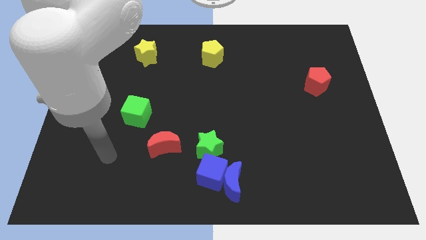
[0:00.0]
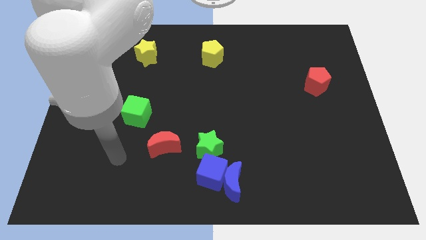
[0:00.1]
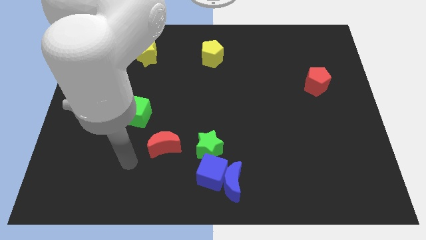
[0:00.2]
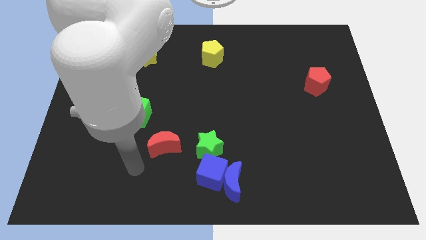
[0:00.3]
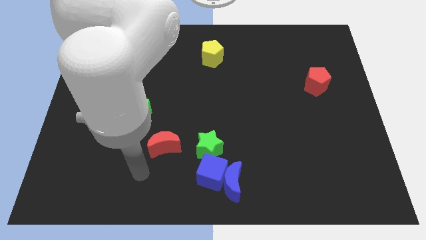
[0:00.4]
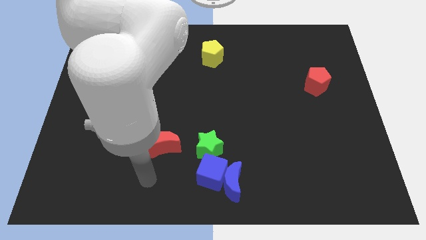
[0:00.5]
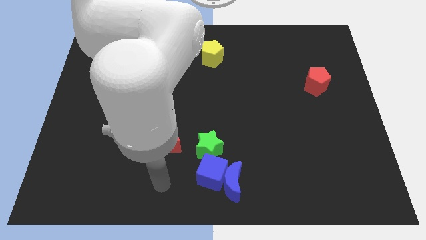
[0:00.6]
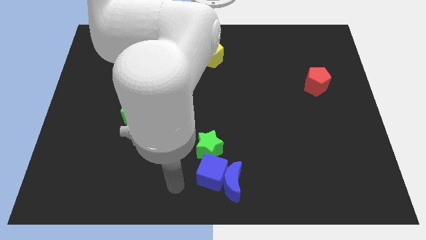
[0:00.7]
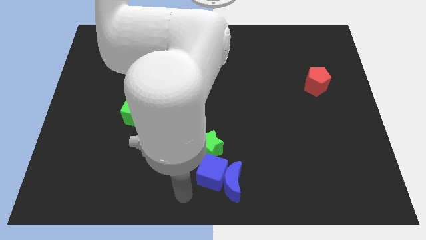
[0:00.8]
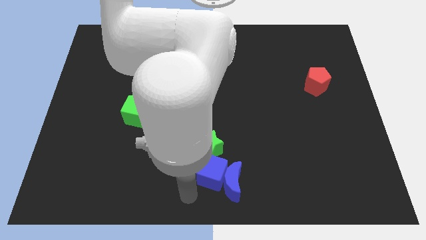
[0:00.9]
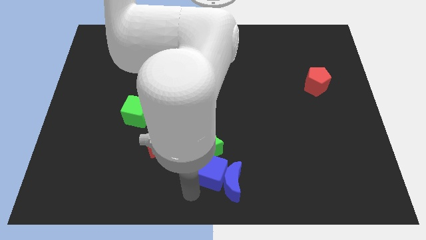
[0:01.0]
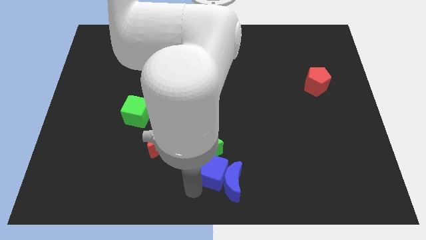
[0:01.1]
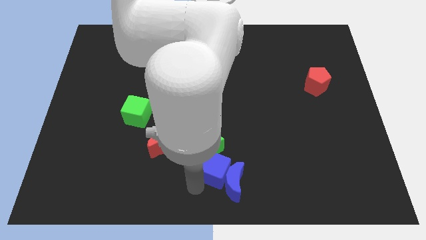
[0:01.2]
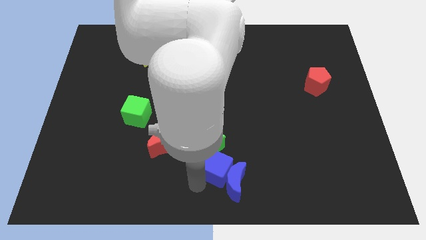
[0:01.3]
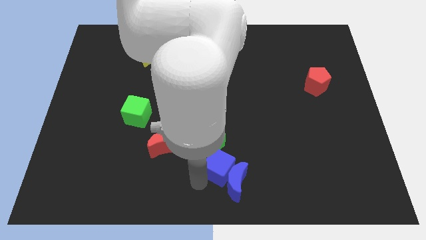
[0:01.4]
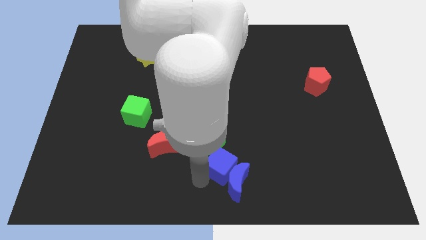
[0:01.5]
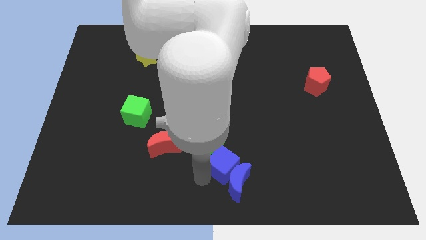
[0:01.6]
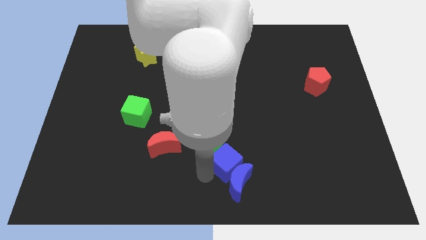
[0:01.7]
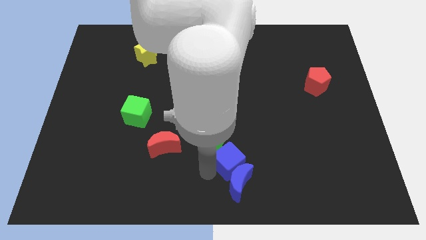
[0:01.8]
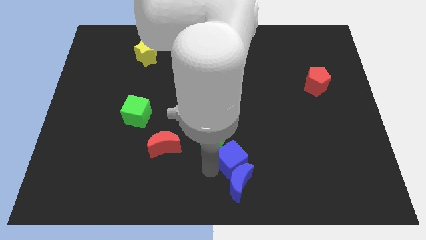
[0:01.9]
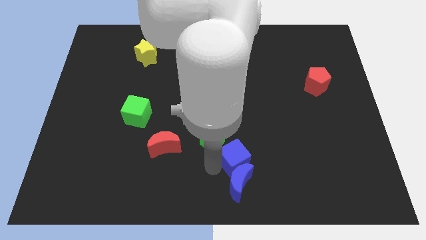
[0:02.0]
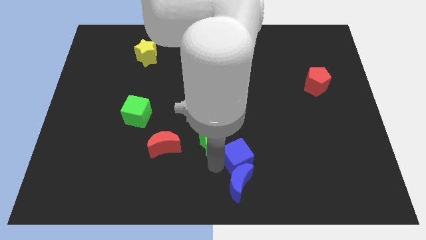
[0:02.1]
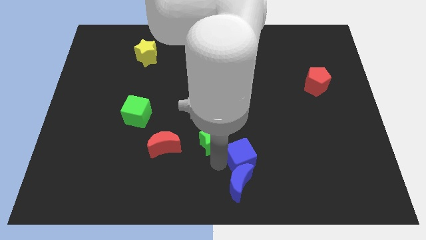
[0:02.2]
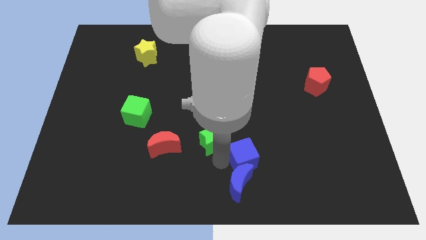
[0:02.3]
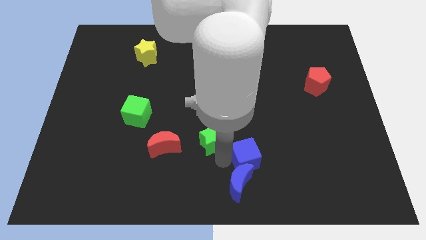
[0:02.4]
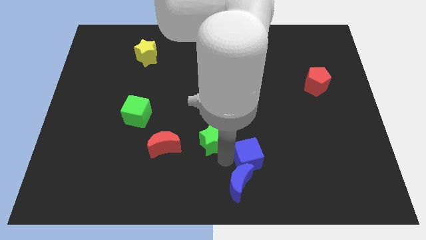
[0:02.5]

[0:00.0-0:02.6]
slide the blue cube to the right slightly

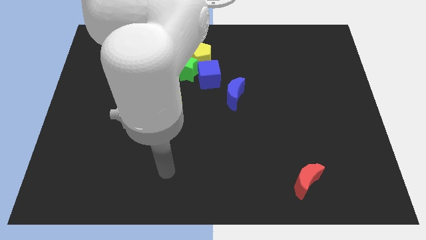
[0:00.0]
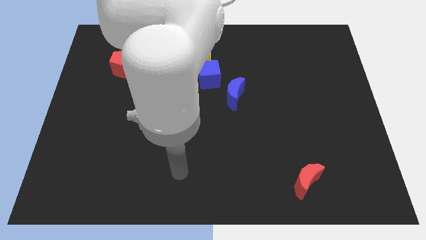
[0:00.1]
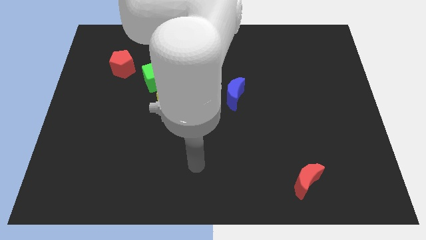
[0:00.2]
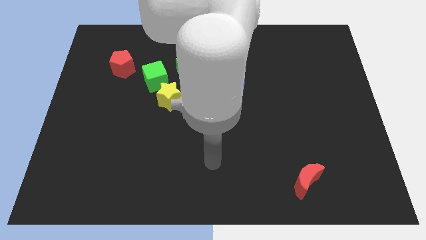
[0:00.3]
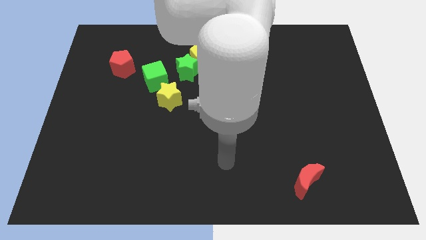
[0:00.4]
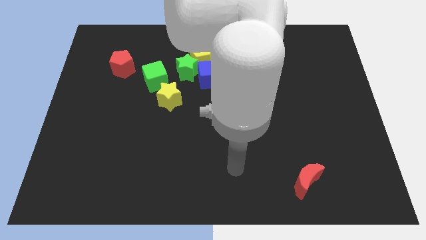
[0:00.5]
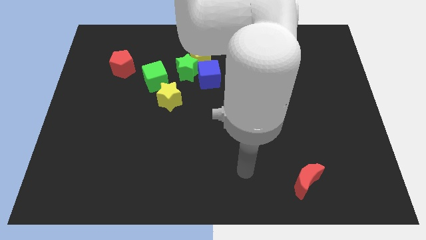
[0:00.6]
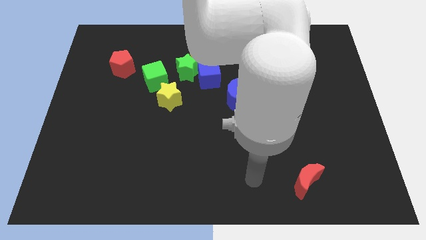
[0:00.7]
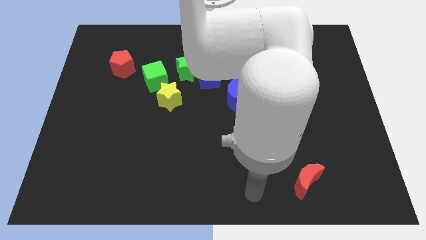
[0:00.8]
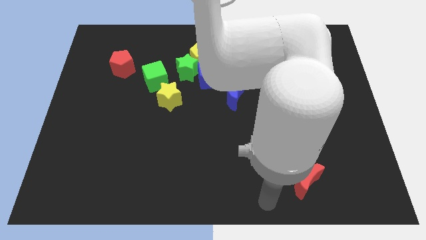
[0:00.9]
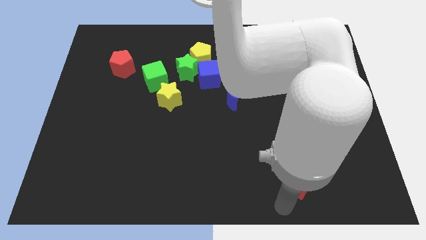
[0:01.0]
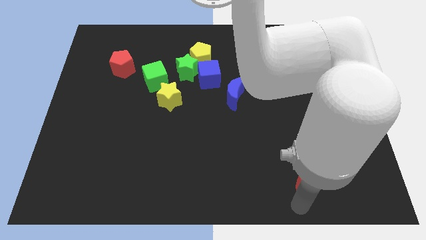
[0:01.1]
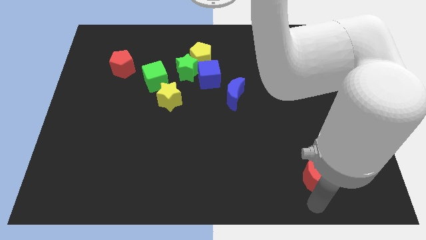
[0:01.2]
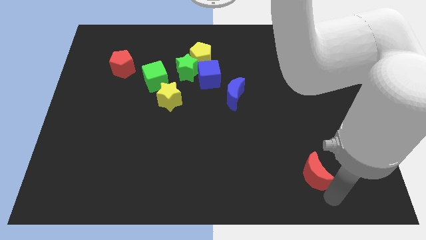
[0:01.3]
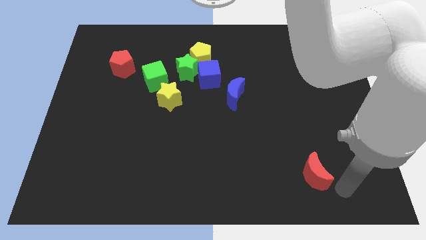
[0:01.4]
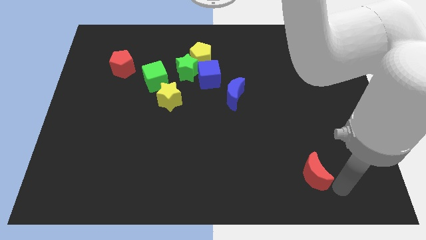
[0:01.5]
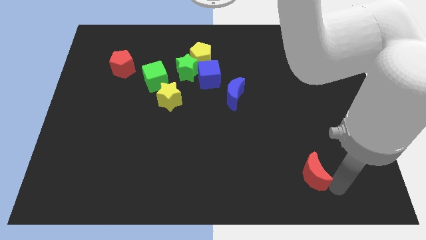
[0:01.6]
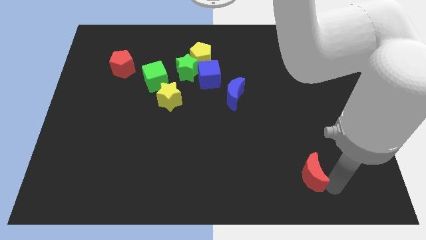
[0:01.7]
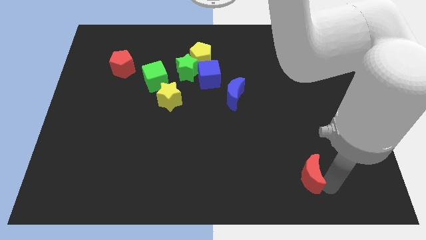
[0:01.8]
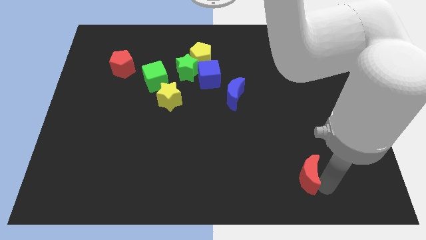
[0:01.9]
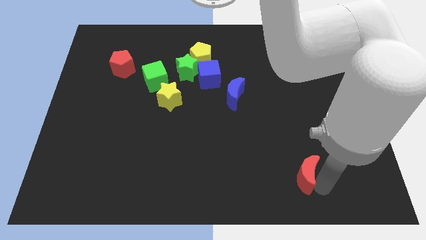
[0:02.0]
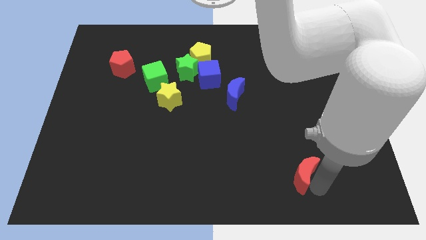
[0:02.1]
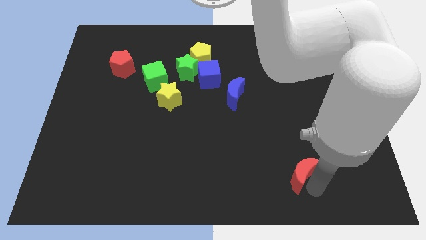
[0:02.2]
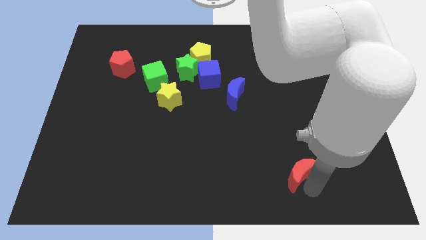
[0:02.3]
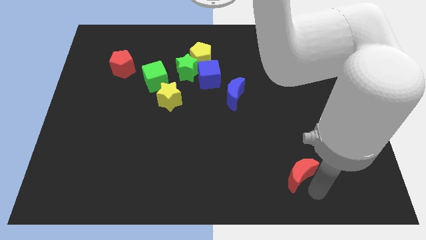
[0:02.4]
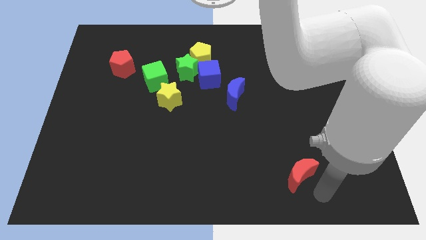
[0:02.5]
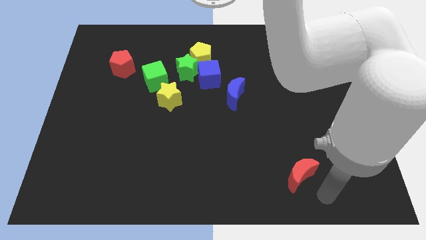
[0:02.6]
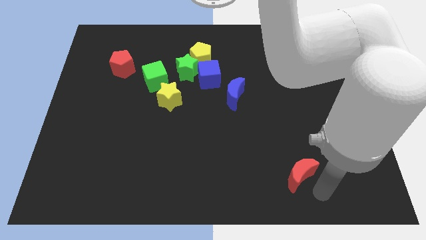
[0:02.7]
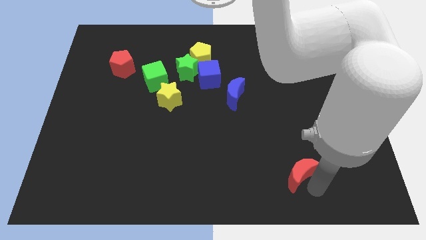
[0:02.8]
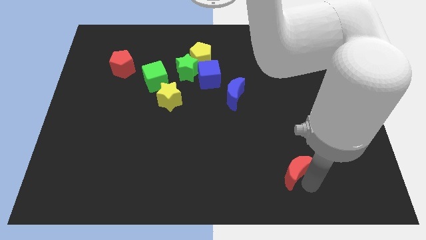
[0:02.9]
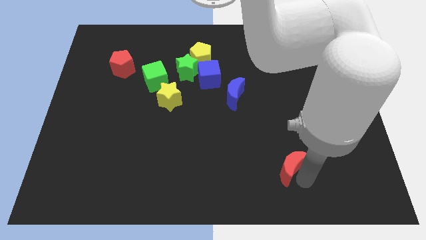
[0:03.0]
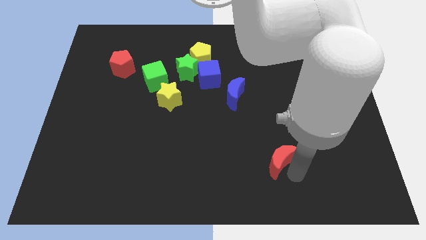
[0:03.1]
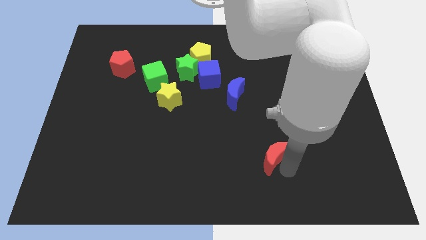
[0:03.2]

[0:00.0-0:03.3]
slide the red moon somewhat up and then to the left

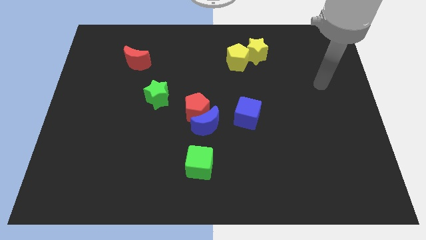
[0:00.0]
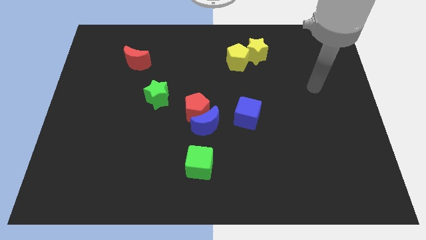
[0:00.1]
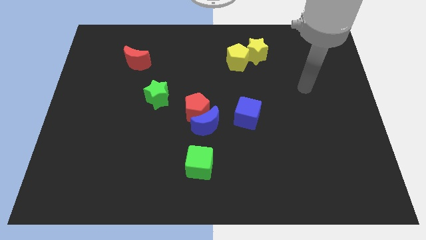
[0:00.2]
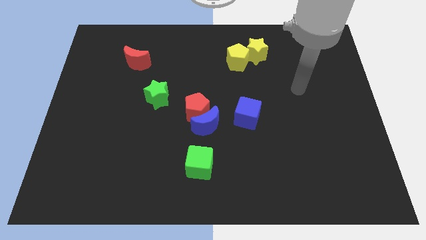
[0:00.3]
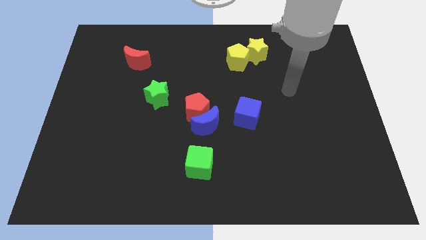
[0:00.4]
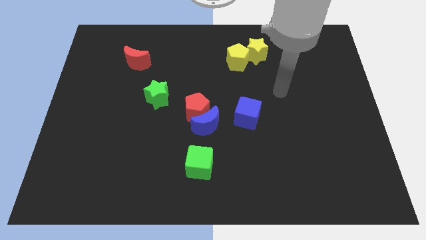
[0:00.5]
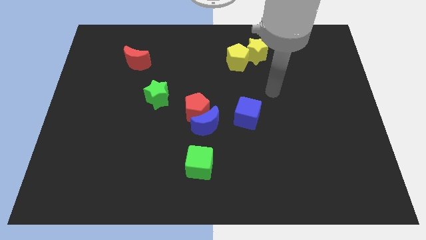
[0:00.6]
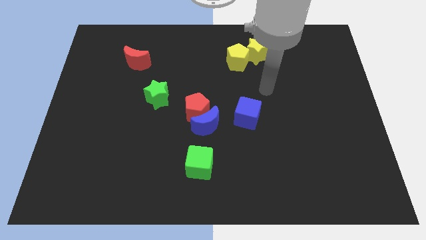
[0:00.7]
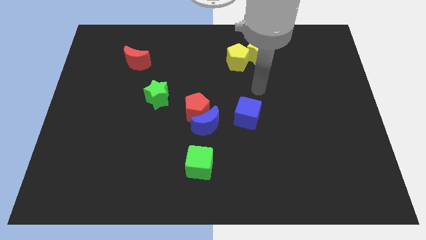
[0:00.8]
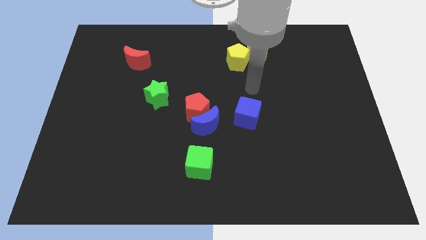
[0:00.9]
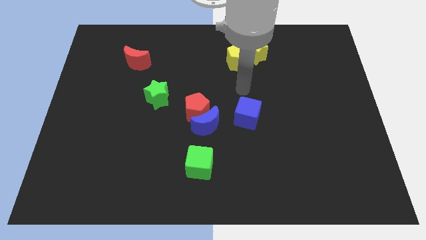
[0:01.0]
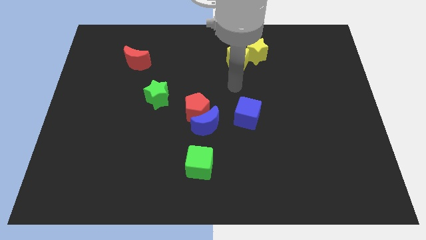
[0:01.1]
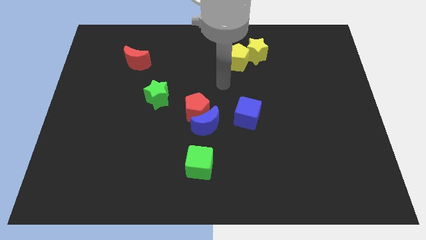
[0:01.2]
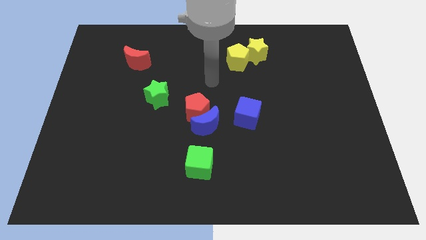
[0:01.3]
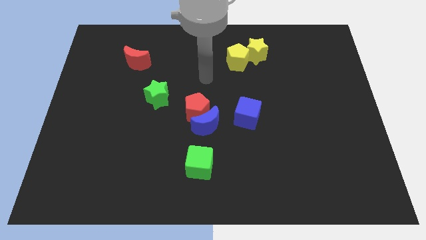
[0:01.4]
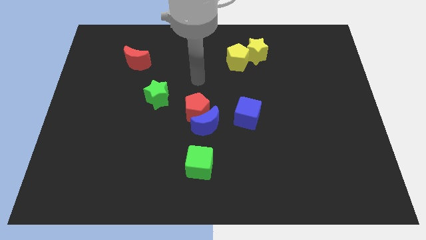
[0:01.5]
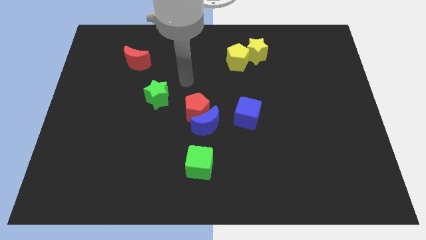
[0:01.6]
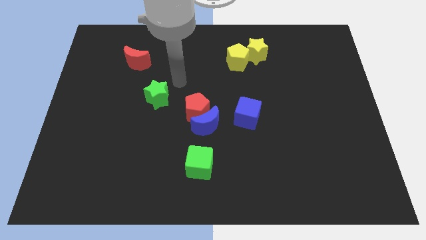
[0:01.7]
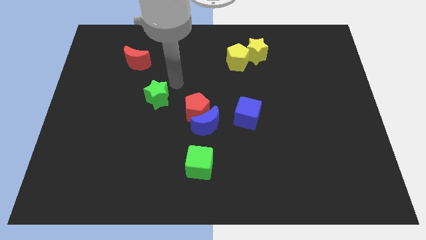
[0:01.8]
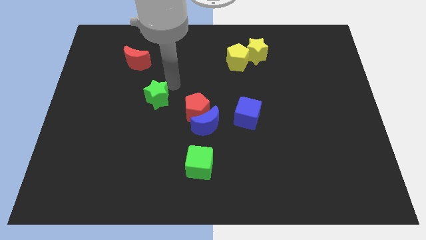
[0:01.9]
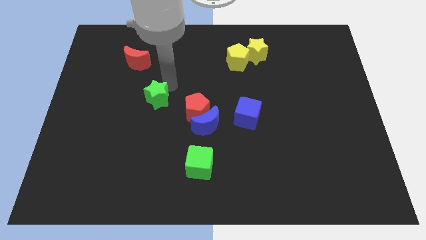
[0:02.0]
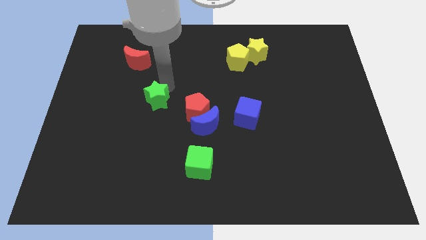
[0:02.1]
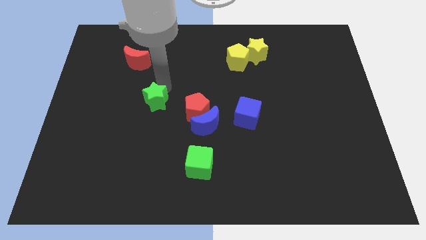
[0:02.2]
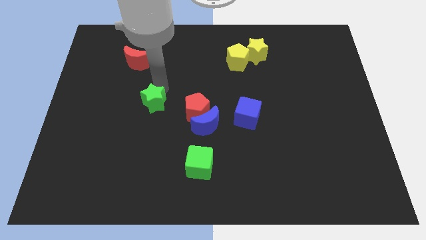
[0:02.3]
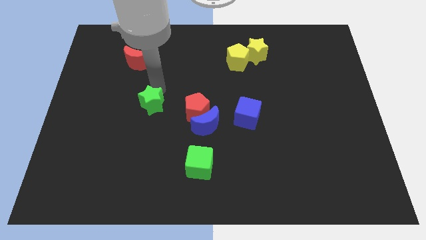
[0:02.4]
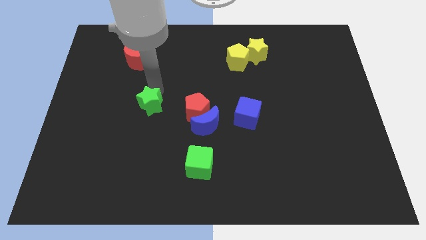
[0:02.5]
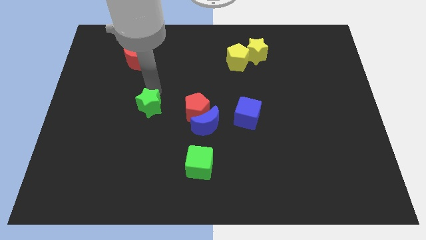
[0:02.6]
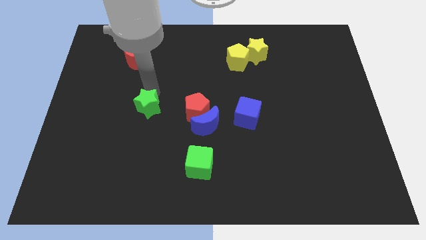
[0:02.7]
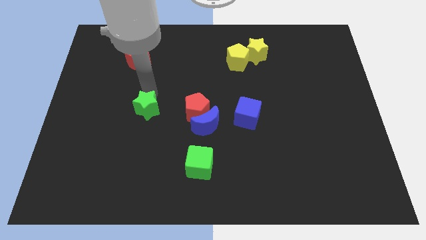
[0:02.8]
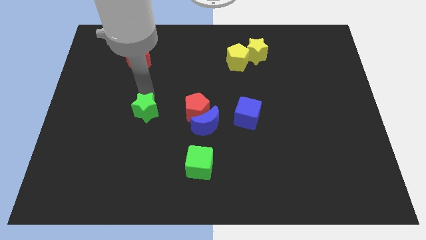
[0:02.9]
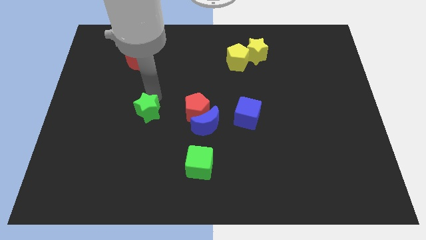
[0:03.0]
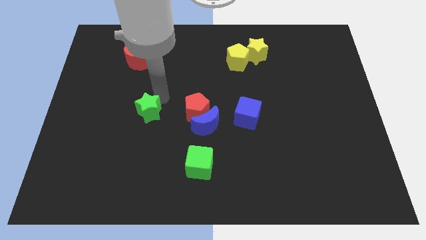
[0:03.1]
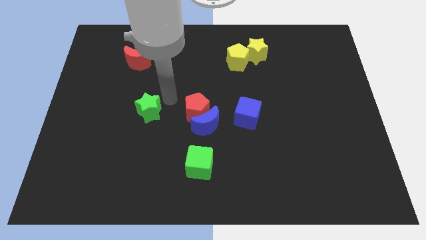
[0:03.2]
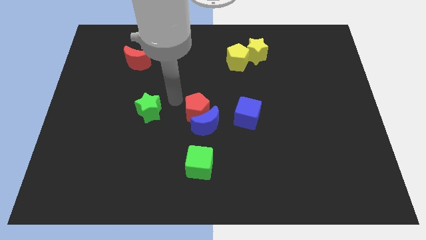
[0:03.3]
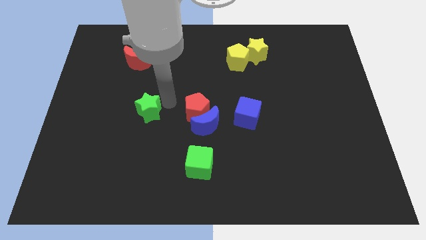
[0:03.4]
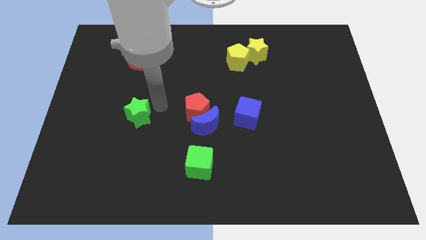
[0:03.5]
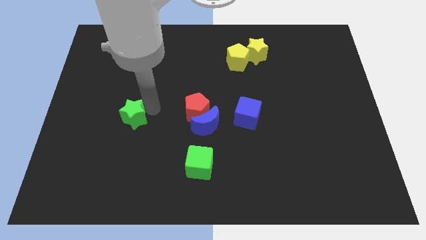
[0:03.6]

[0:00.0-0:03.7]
slightly slide the green star down and then to the left
